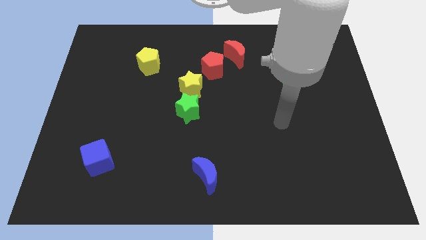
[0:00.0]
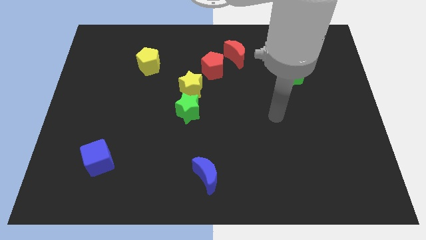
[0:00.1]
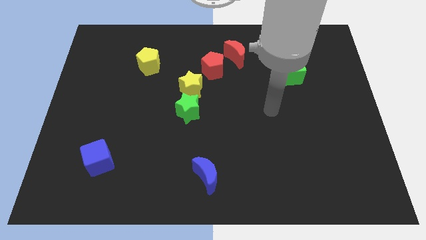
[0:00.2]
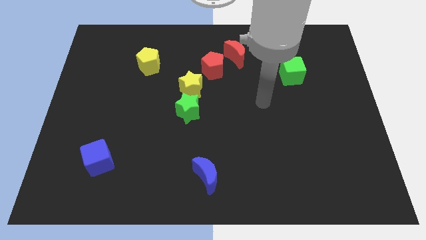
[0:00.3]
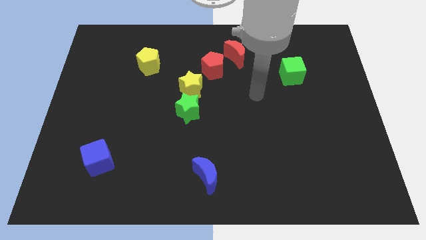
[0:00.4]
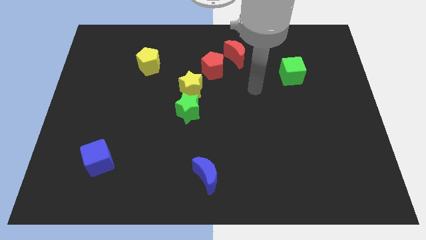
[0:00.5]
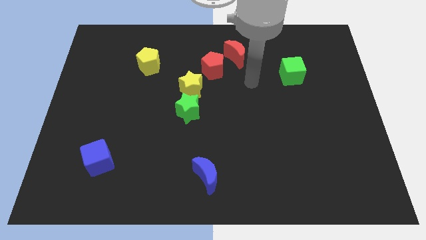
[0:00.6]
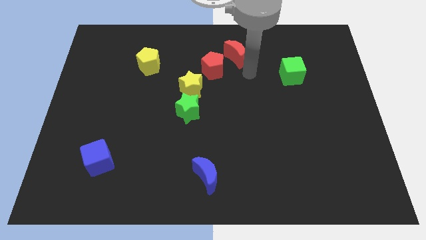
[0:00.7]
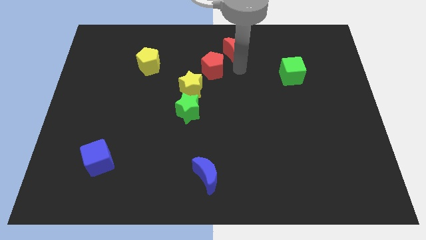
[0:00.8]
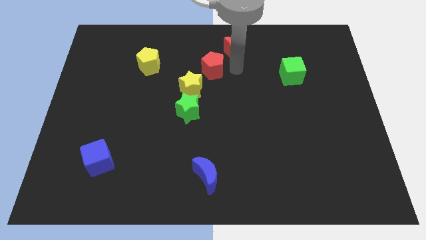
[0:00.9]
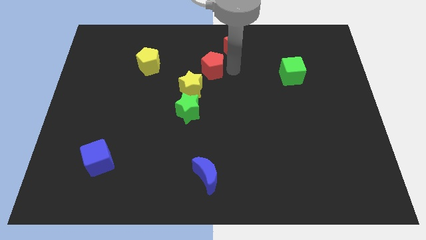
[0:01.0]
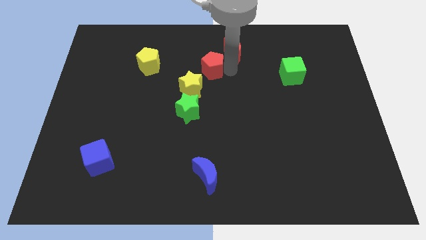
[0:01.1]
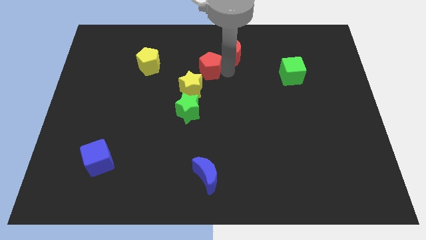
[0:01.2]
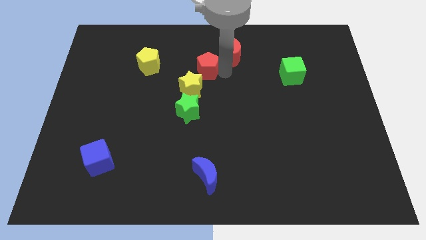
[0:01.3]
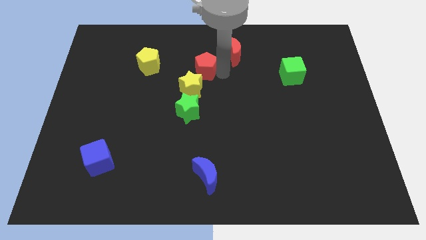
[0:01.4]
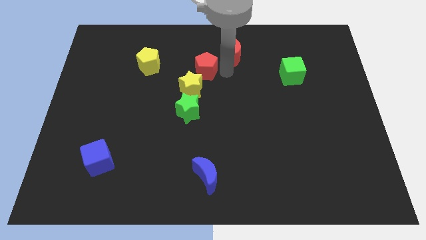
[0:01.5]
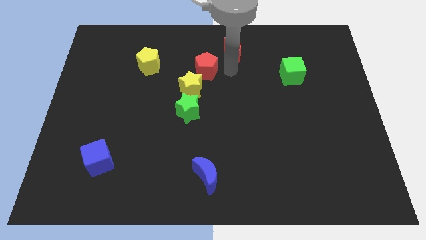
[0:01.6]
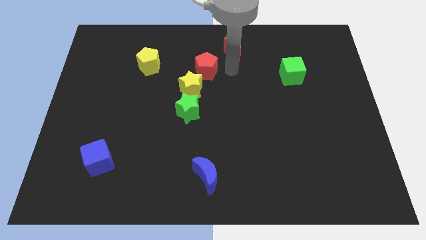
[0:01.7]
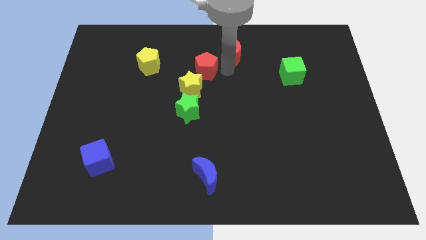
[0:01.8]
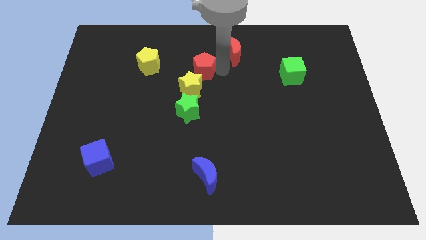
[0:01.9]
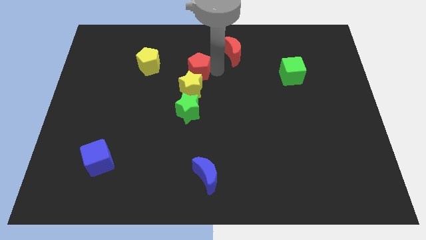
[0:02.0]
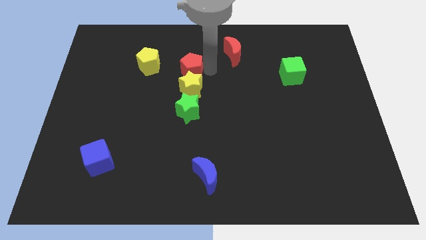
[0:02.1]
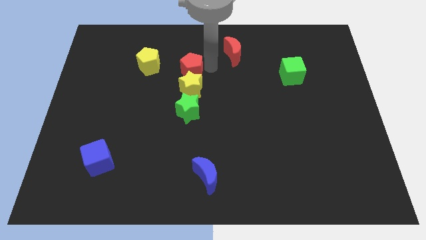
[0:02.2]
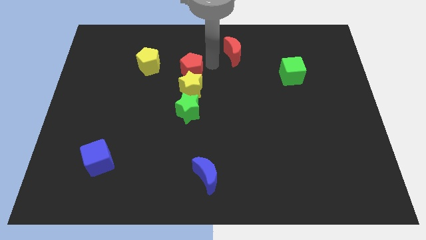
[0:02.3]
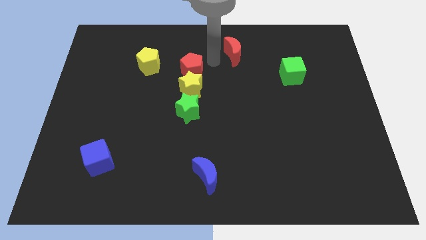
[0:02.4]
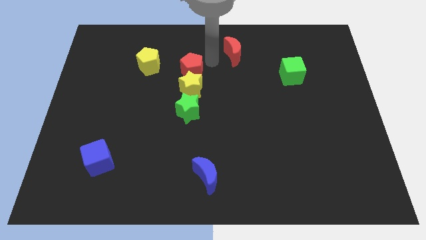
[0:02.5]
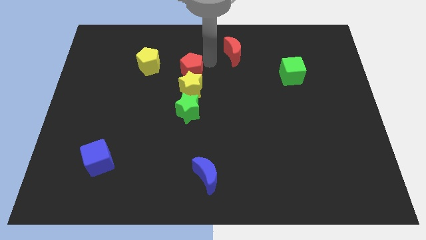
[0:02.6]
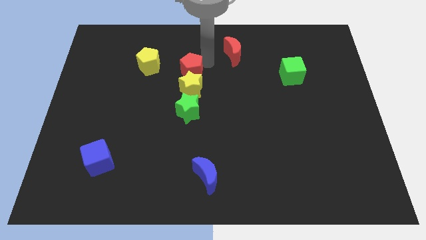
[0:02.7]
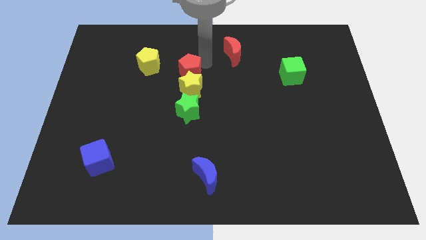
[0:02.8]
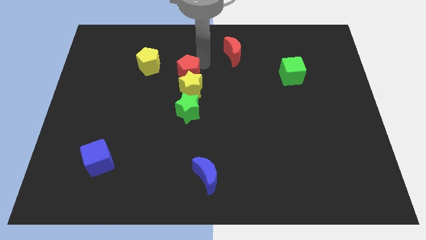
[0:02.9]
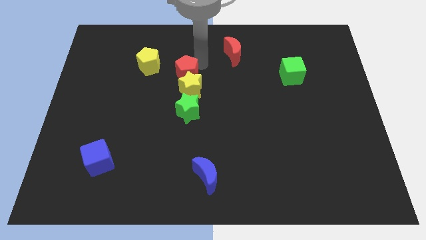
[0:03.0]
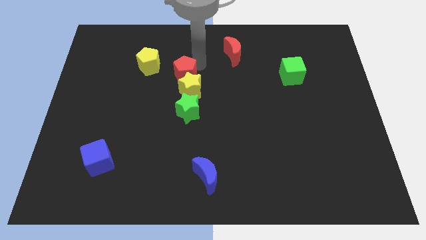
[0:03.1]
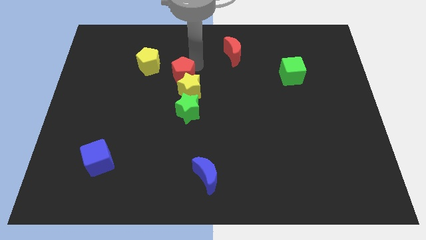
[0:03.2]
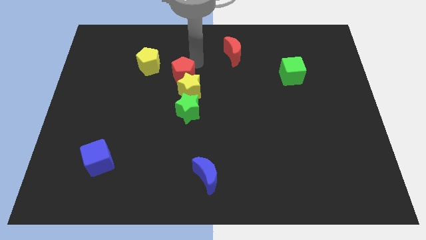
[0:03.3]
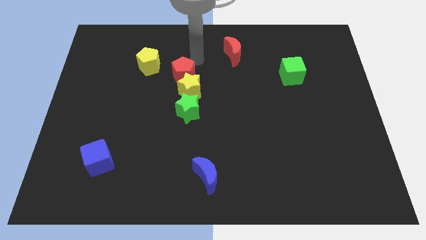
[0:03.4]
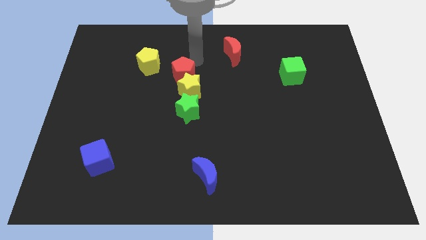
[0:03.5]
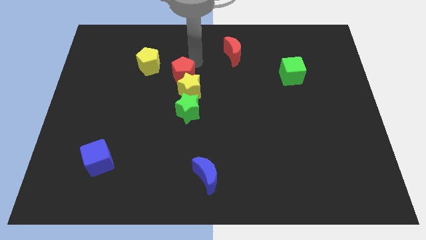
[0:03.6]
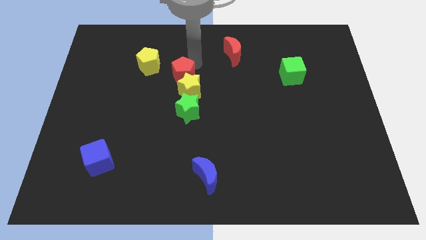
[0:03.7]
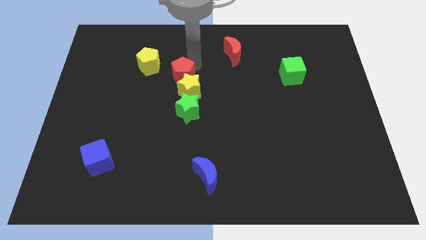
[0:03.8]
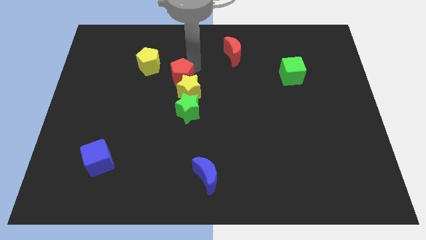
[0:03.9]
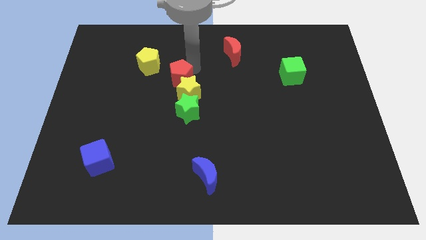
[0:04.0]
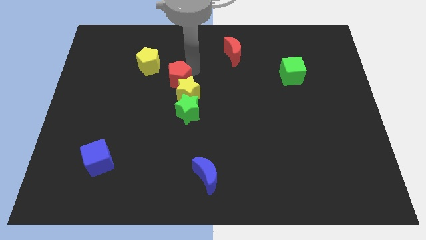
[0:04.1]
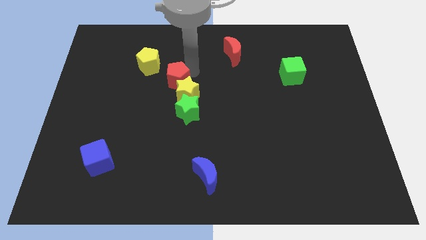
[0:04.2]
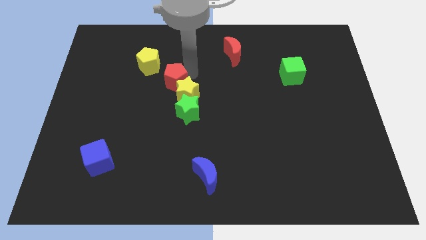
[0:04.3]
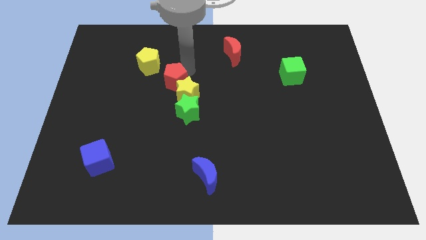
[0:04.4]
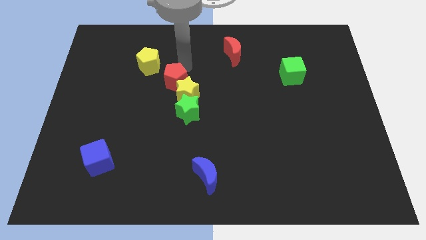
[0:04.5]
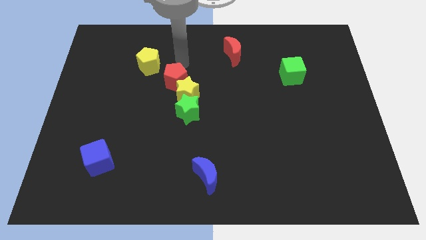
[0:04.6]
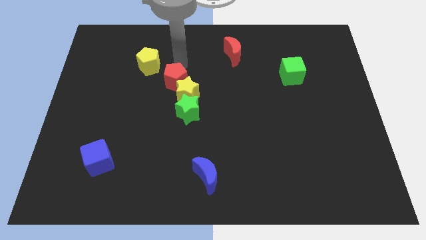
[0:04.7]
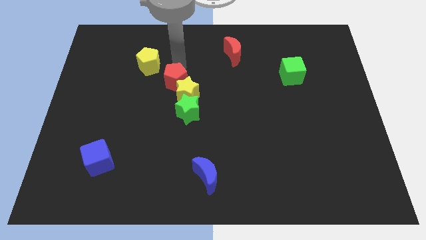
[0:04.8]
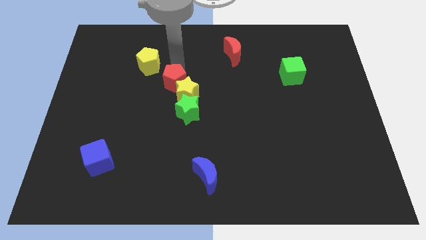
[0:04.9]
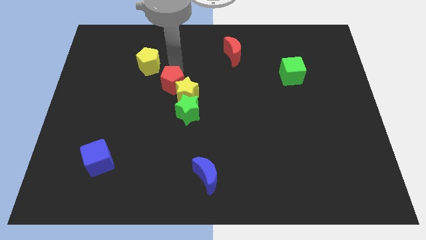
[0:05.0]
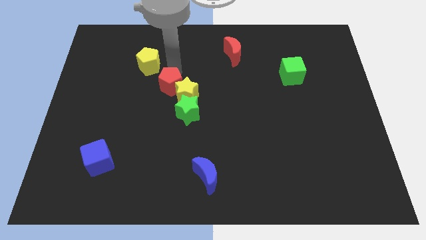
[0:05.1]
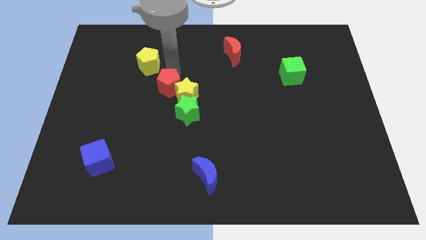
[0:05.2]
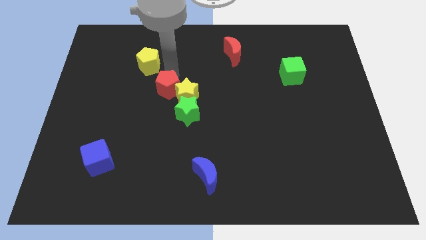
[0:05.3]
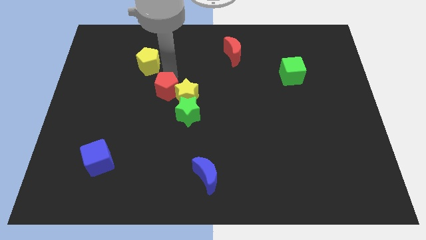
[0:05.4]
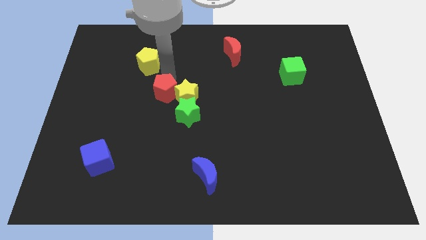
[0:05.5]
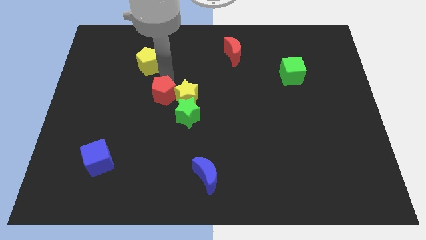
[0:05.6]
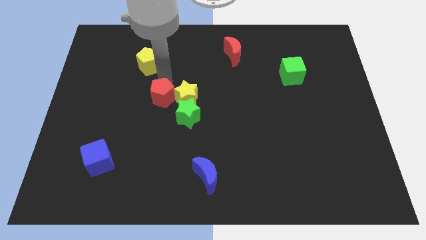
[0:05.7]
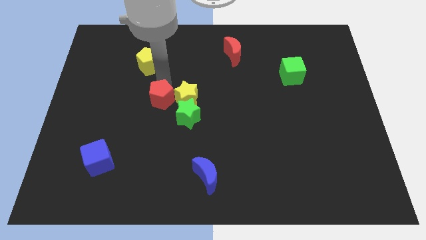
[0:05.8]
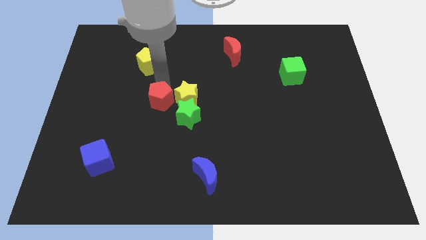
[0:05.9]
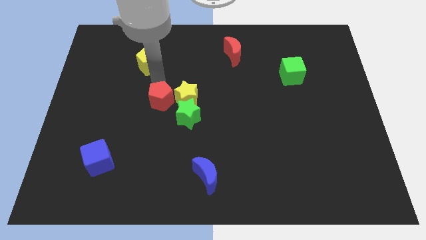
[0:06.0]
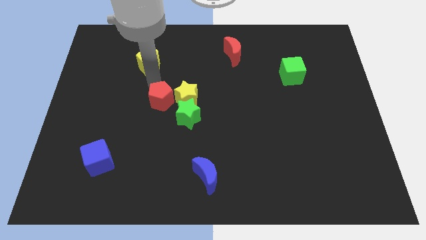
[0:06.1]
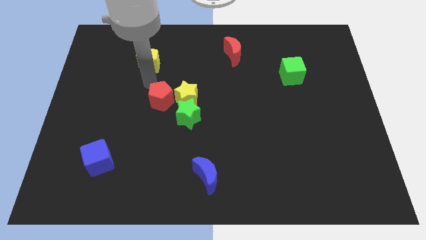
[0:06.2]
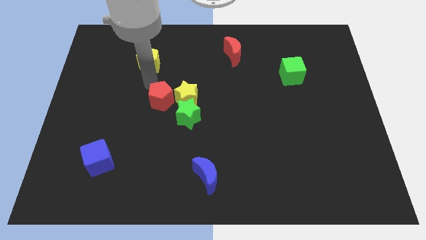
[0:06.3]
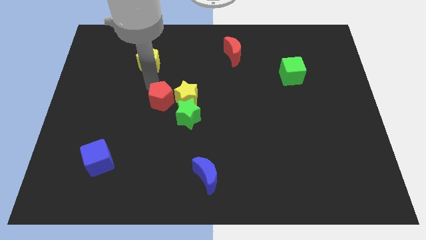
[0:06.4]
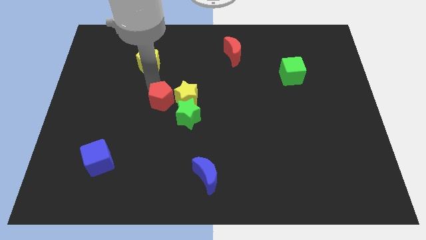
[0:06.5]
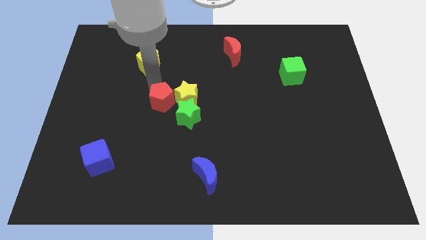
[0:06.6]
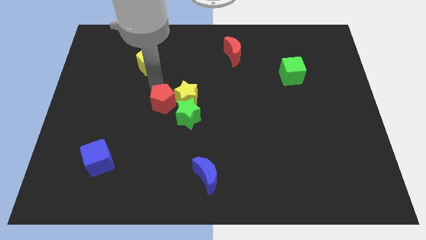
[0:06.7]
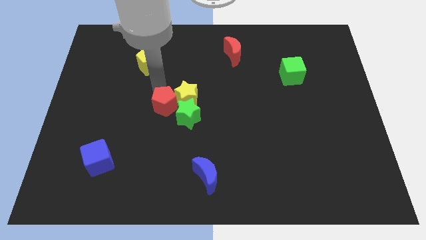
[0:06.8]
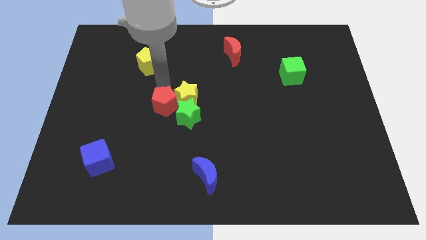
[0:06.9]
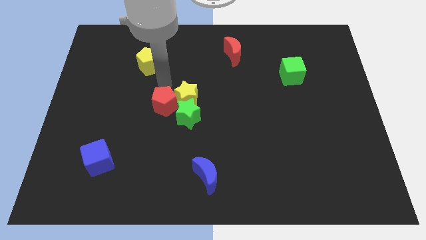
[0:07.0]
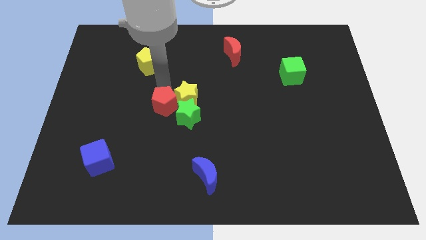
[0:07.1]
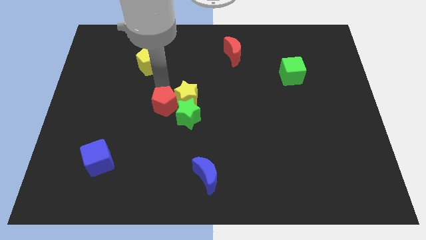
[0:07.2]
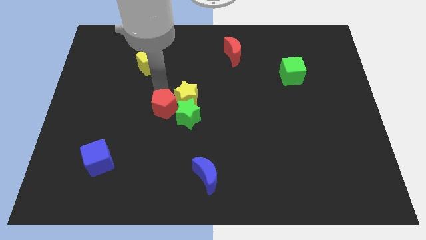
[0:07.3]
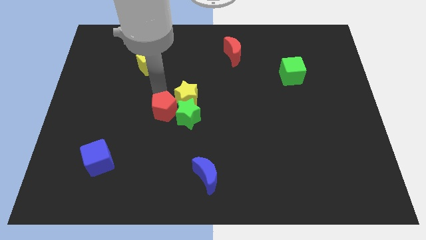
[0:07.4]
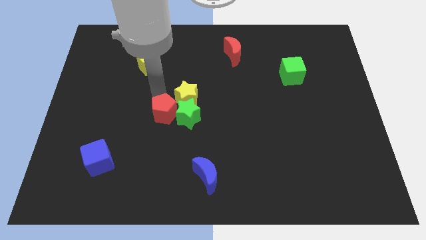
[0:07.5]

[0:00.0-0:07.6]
move the red pentagon diagonally down and to the left of the green star
